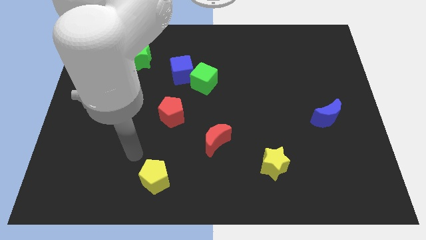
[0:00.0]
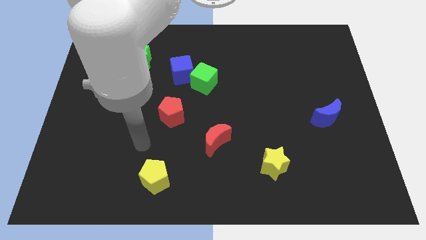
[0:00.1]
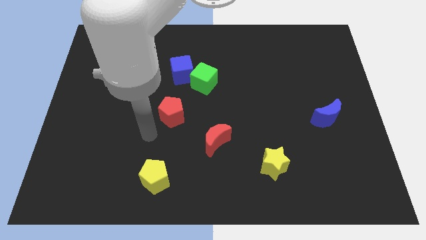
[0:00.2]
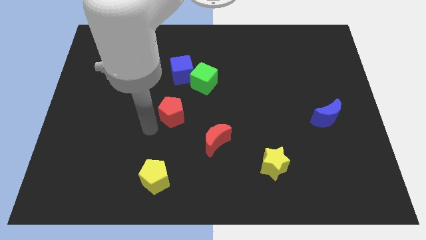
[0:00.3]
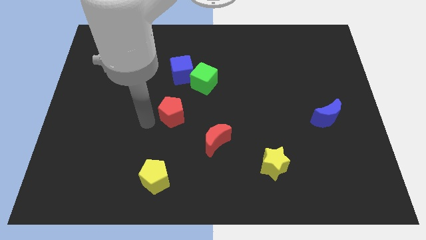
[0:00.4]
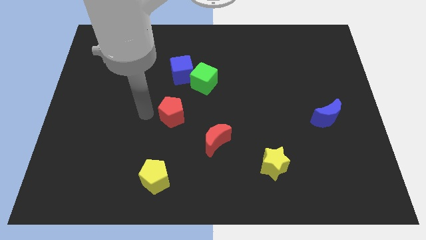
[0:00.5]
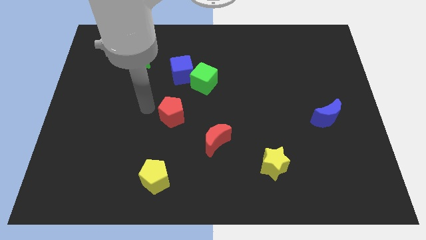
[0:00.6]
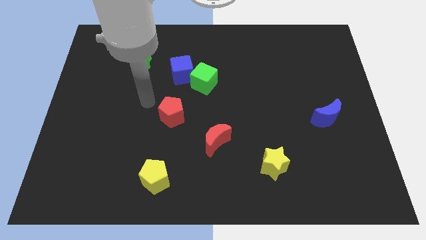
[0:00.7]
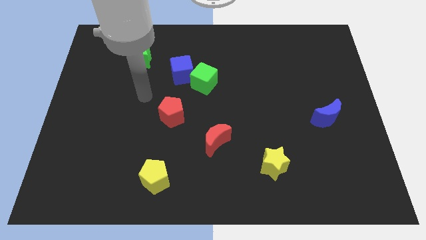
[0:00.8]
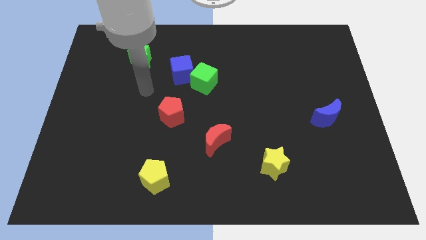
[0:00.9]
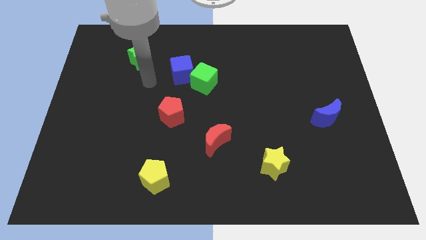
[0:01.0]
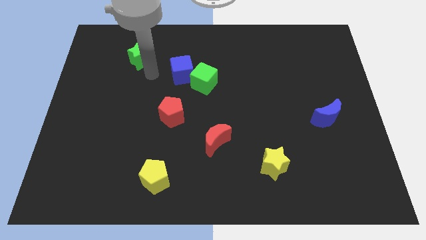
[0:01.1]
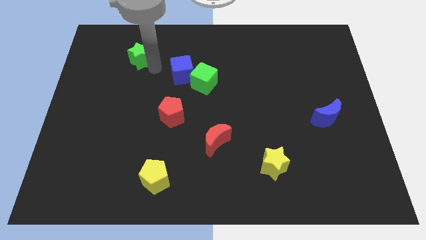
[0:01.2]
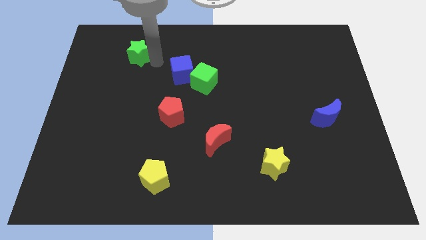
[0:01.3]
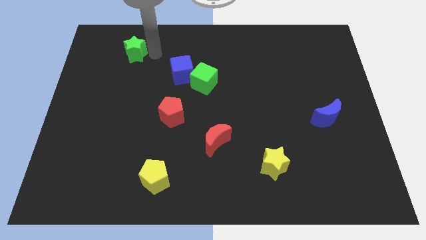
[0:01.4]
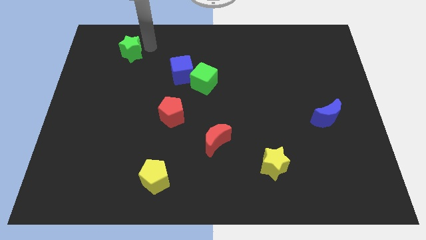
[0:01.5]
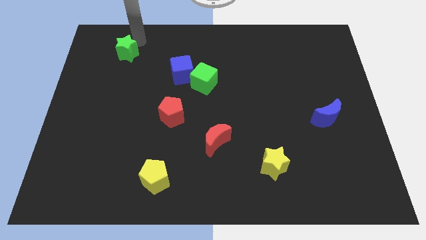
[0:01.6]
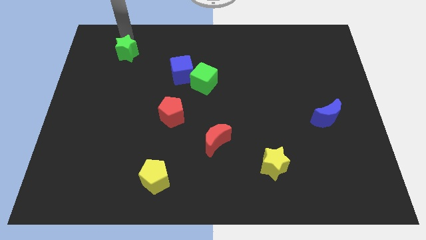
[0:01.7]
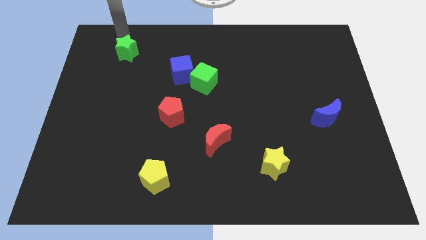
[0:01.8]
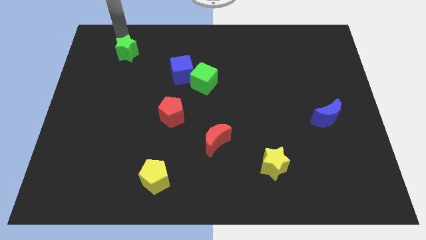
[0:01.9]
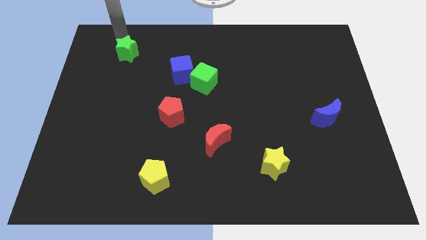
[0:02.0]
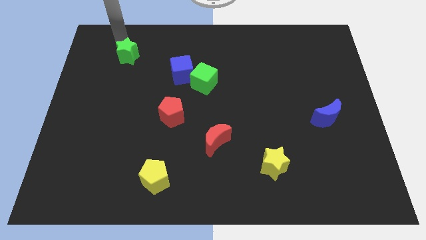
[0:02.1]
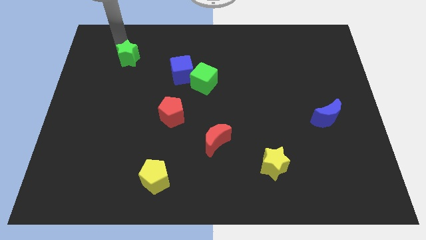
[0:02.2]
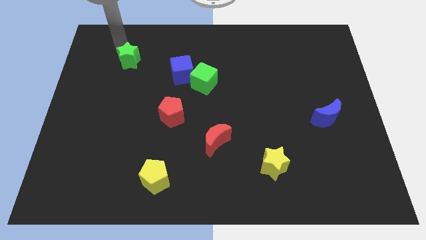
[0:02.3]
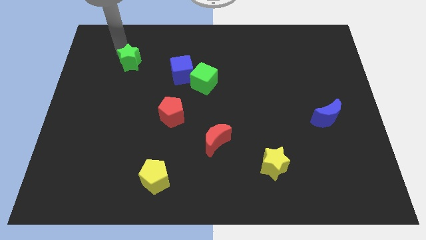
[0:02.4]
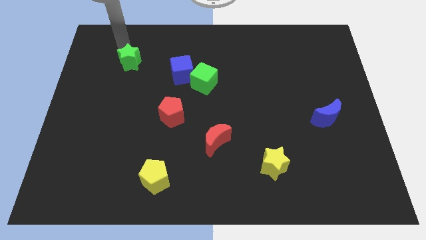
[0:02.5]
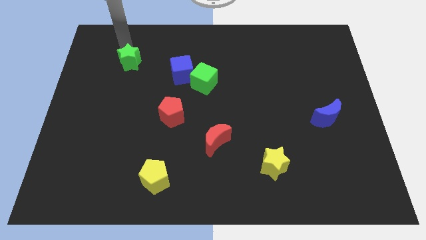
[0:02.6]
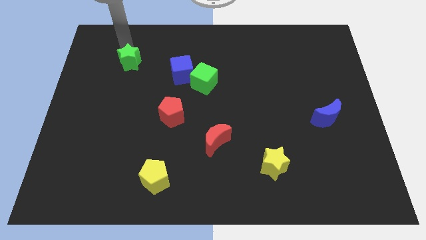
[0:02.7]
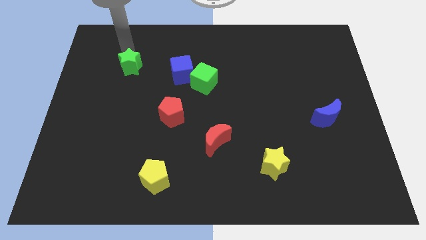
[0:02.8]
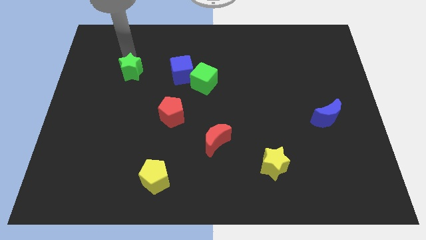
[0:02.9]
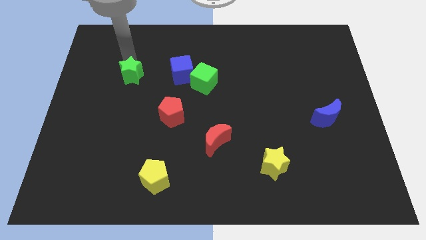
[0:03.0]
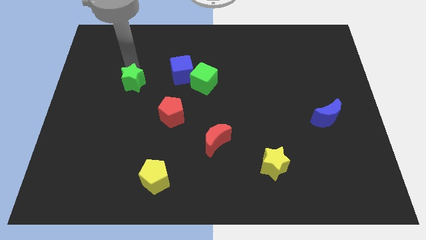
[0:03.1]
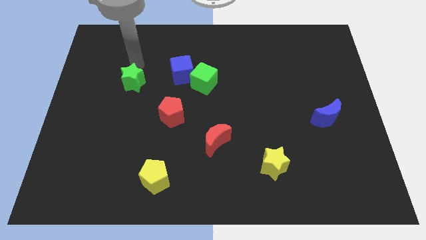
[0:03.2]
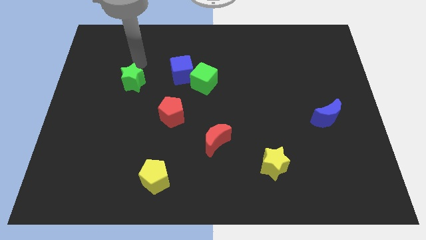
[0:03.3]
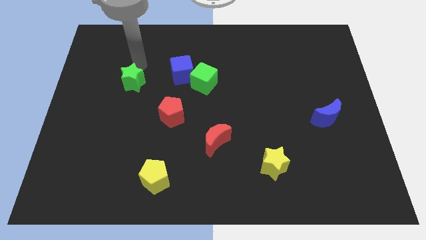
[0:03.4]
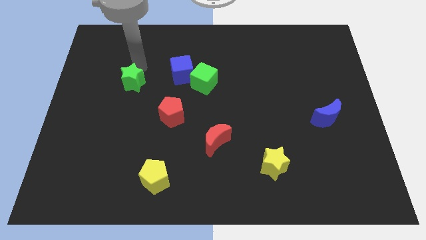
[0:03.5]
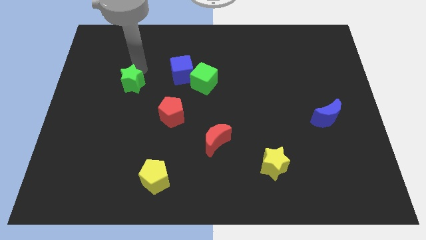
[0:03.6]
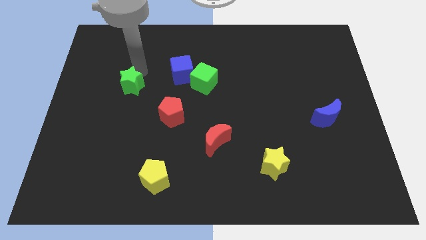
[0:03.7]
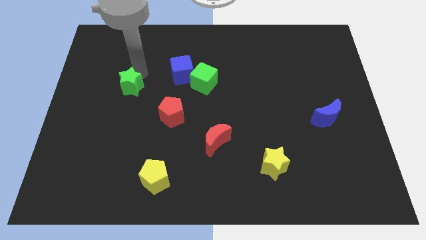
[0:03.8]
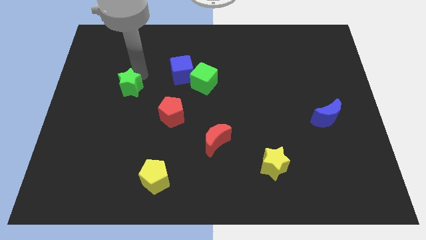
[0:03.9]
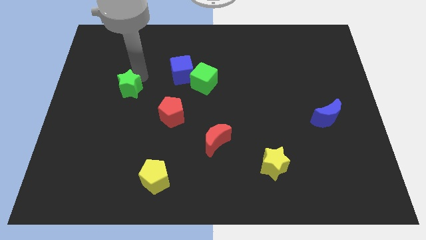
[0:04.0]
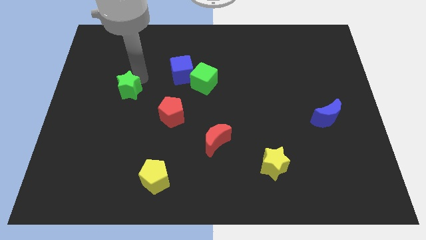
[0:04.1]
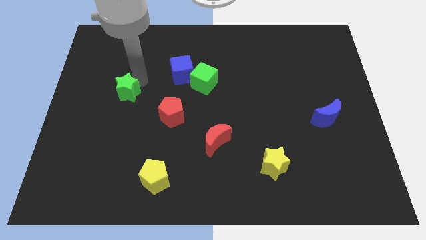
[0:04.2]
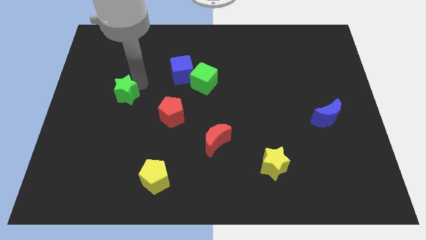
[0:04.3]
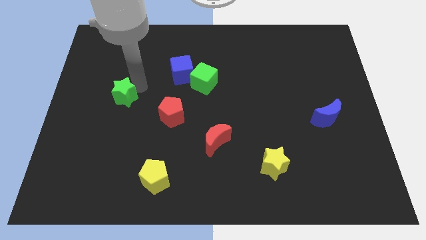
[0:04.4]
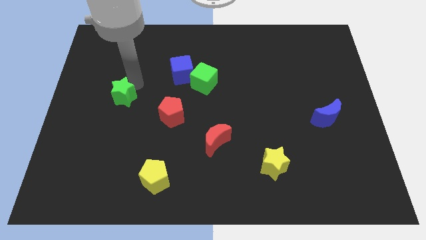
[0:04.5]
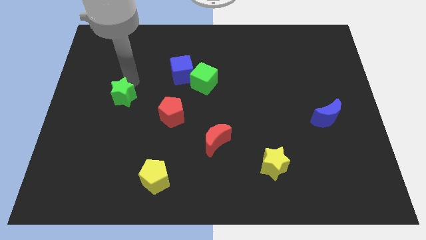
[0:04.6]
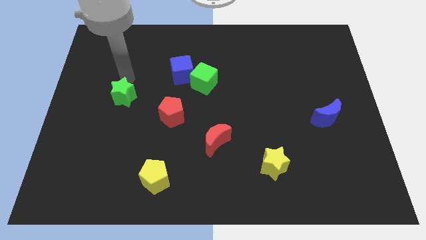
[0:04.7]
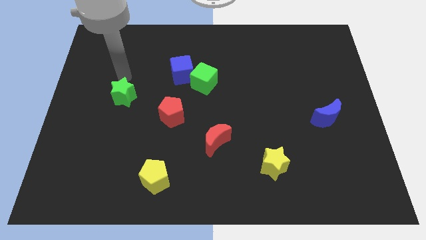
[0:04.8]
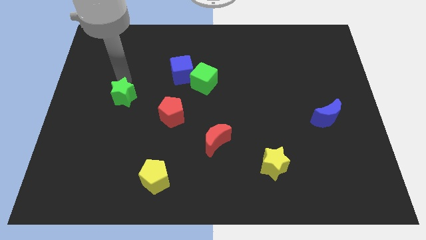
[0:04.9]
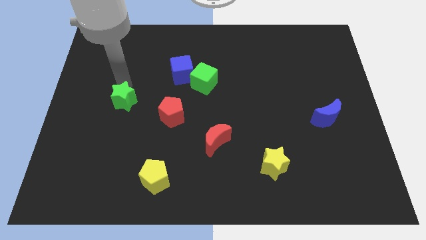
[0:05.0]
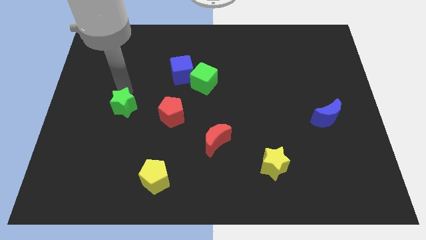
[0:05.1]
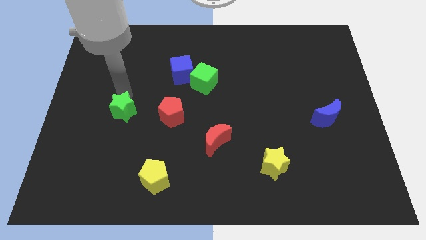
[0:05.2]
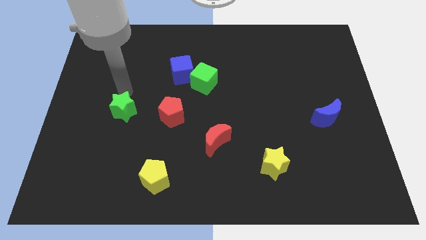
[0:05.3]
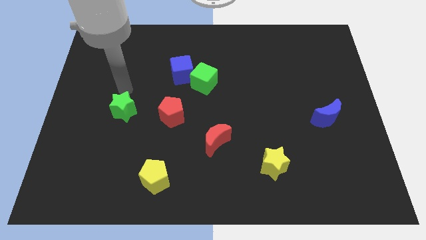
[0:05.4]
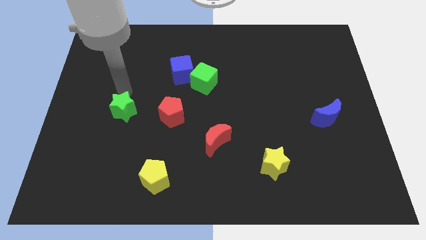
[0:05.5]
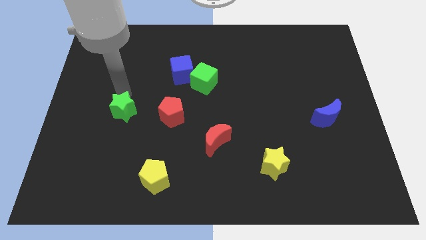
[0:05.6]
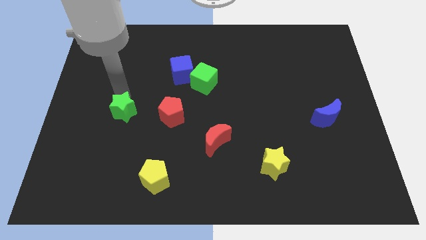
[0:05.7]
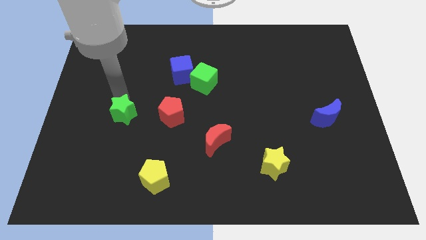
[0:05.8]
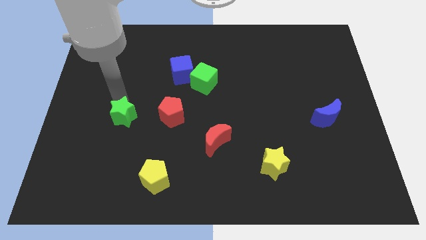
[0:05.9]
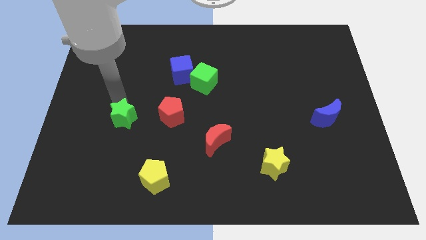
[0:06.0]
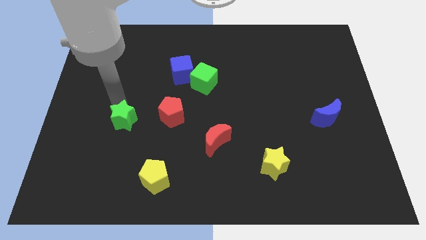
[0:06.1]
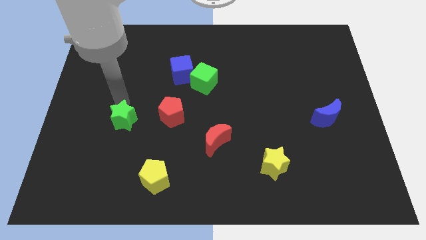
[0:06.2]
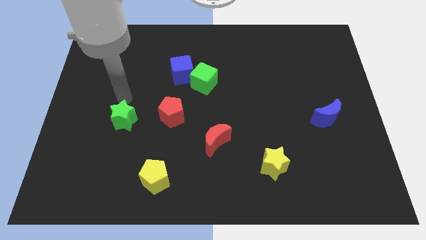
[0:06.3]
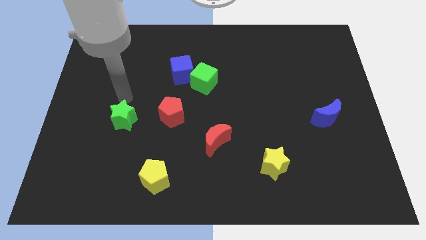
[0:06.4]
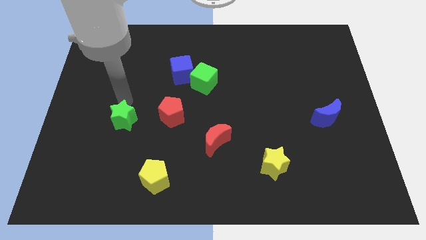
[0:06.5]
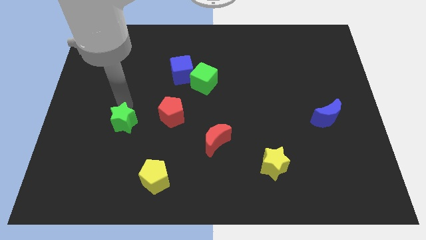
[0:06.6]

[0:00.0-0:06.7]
slide the green star down

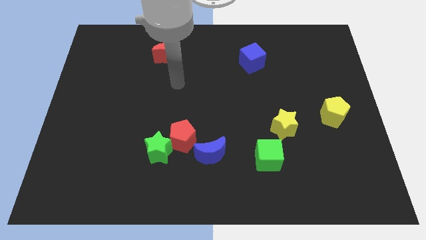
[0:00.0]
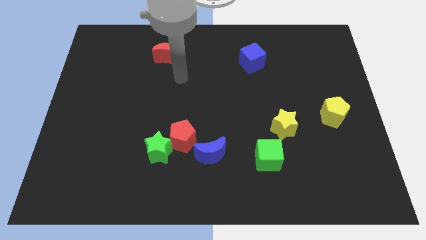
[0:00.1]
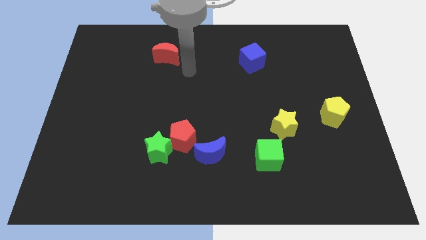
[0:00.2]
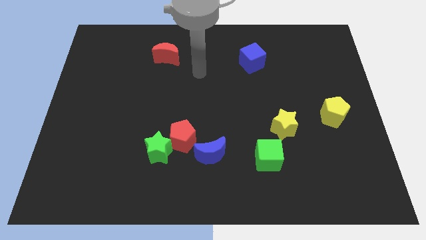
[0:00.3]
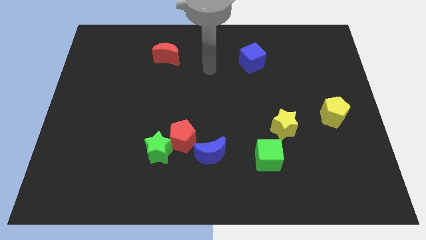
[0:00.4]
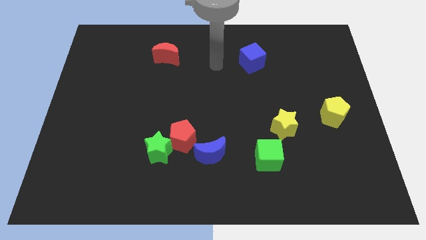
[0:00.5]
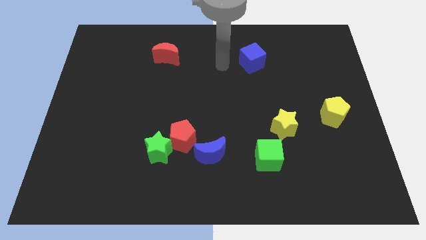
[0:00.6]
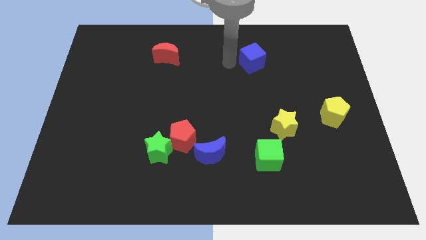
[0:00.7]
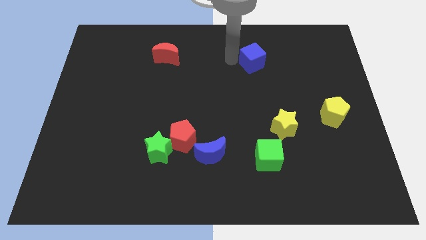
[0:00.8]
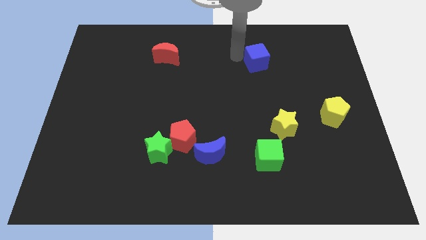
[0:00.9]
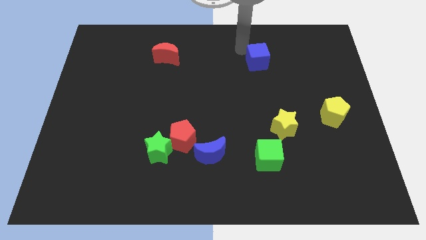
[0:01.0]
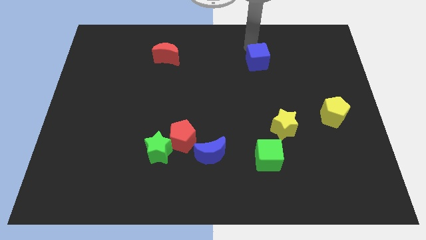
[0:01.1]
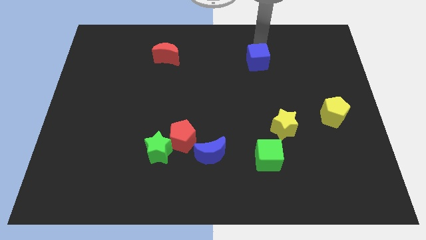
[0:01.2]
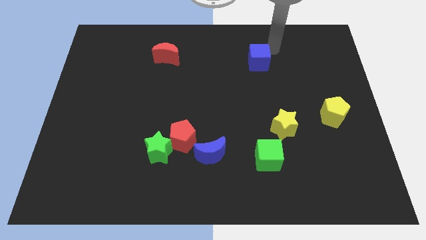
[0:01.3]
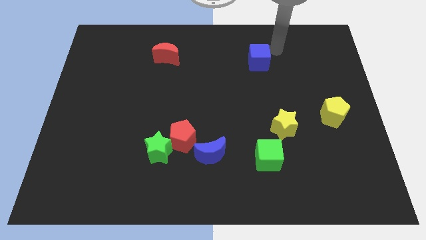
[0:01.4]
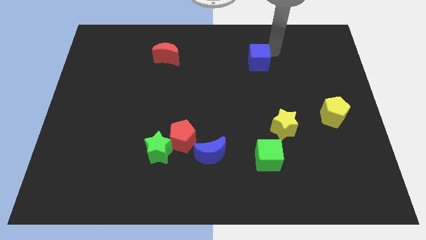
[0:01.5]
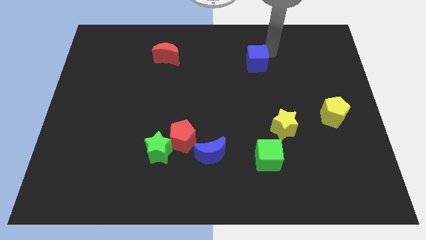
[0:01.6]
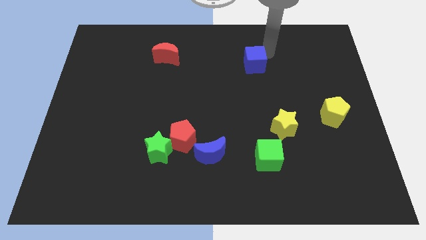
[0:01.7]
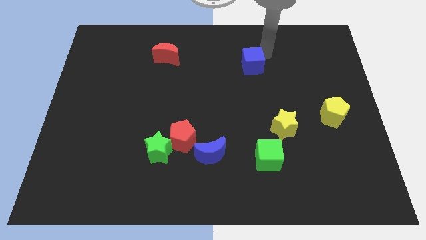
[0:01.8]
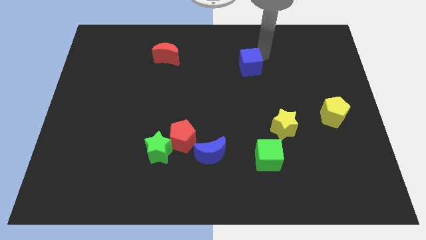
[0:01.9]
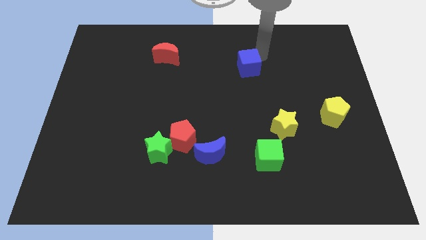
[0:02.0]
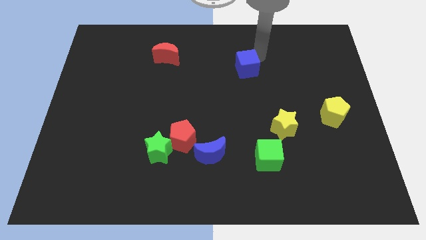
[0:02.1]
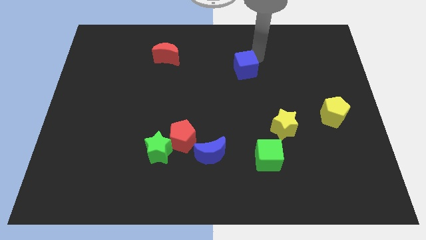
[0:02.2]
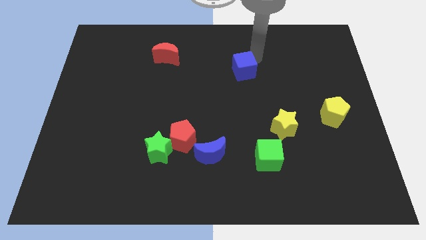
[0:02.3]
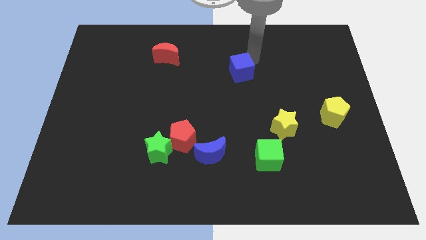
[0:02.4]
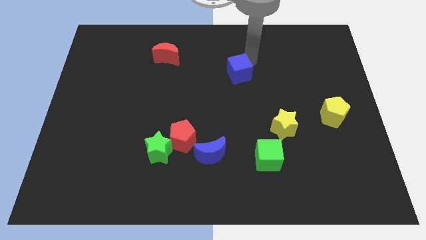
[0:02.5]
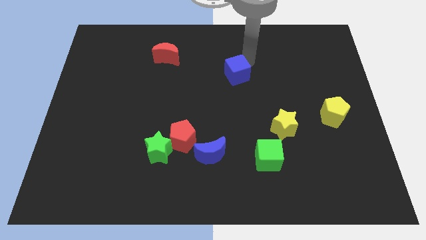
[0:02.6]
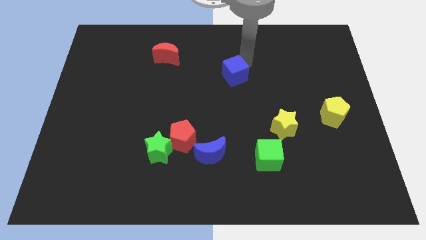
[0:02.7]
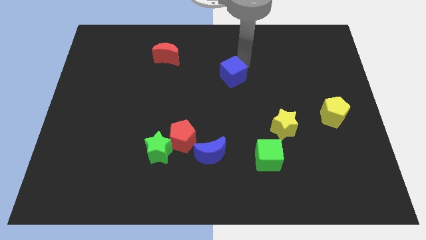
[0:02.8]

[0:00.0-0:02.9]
slide the blue cube a bit down and to the left
